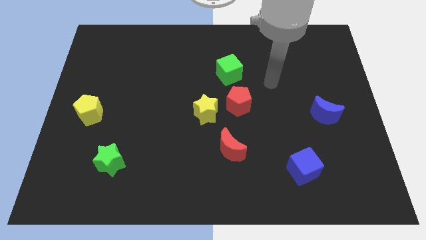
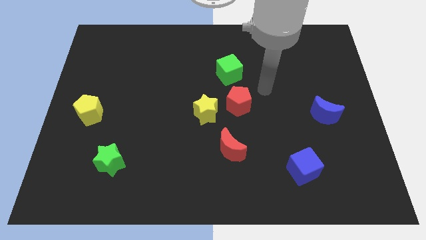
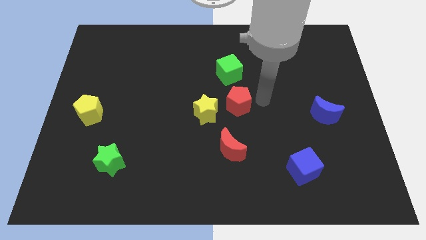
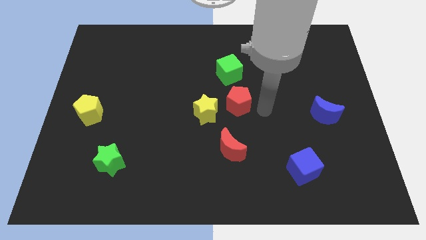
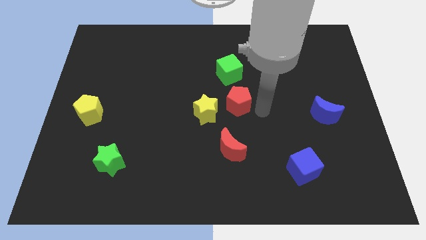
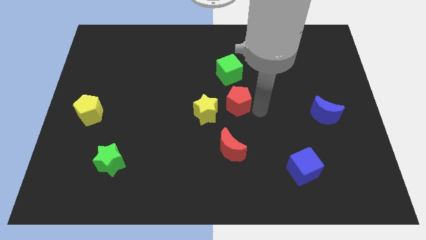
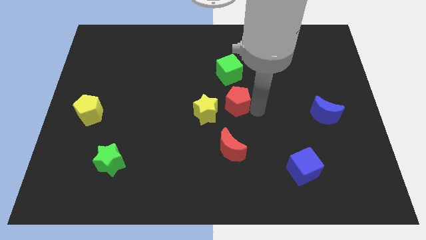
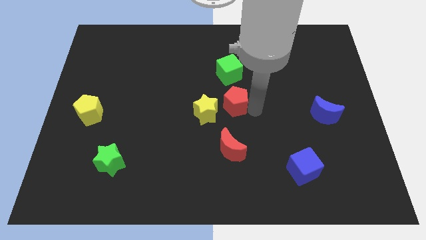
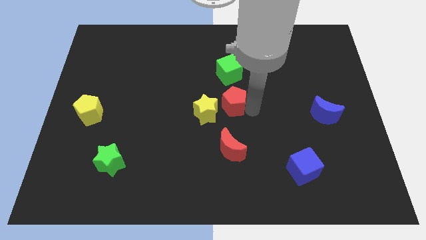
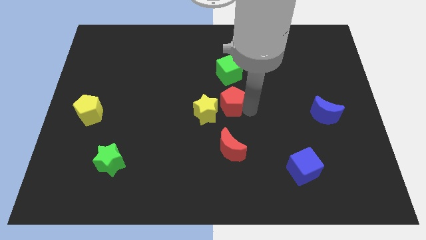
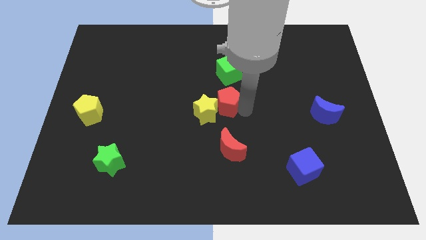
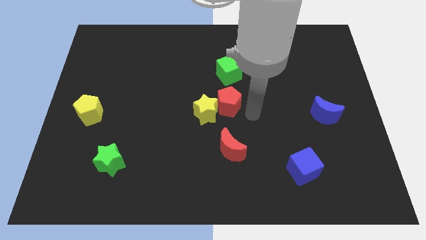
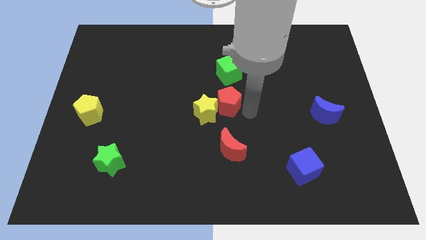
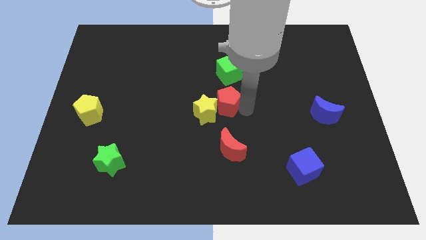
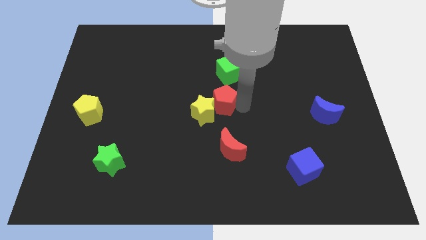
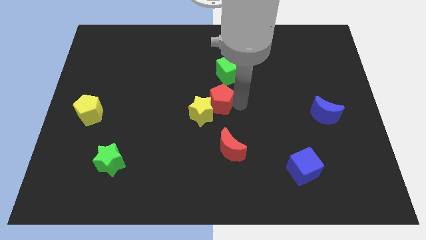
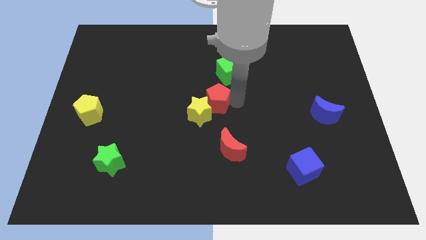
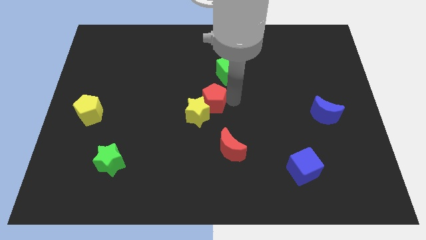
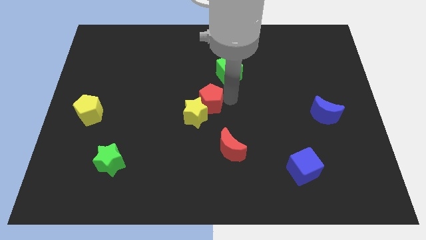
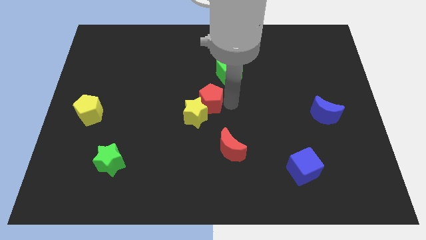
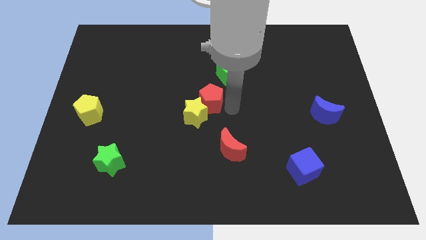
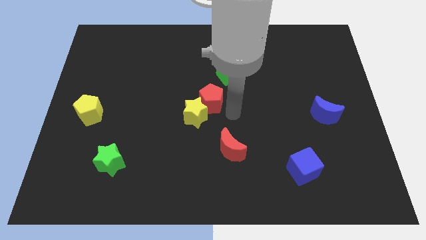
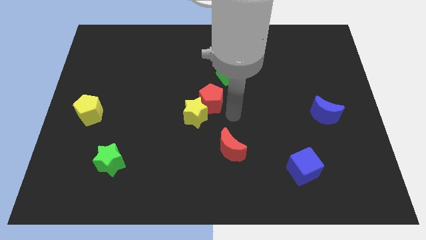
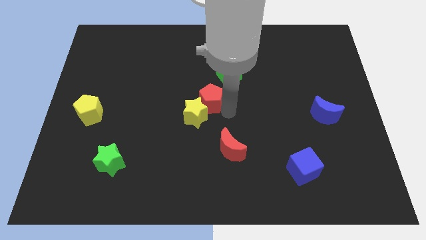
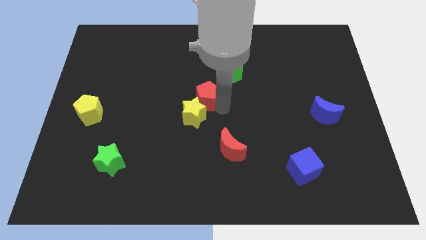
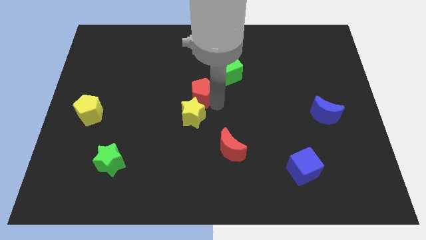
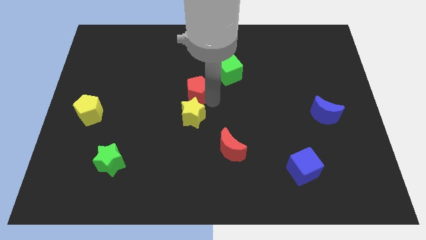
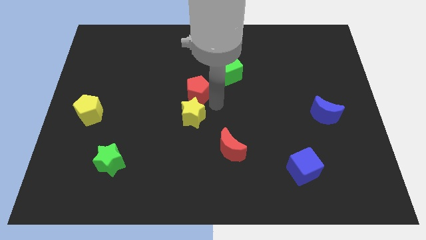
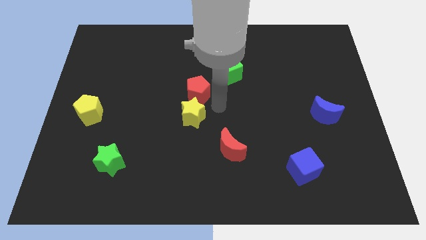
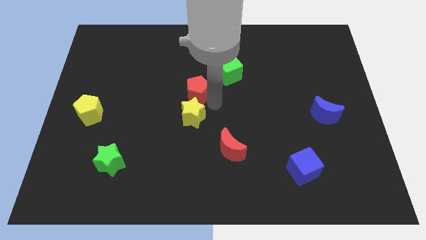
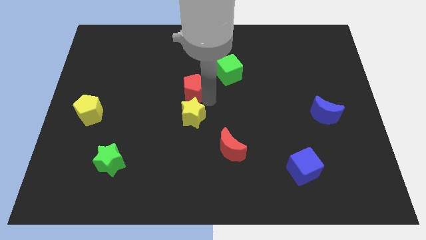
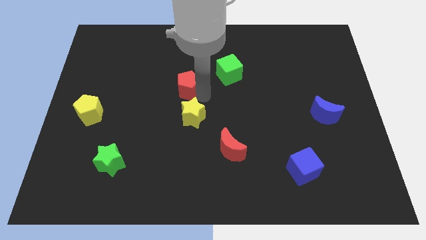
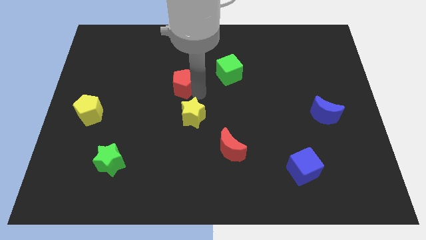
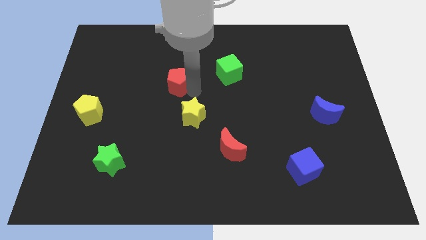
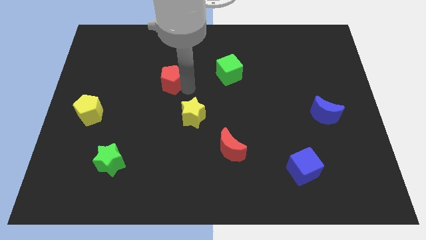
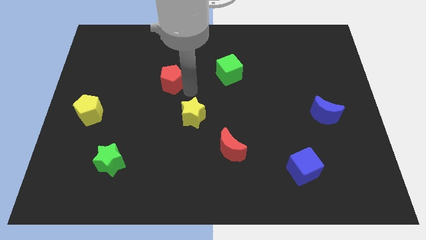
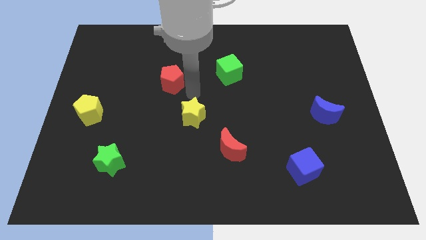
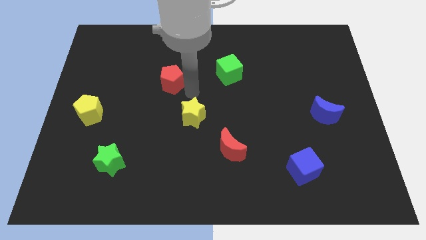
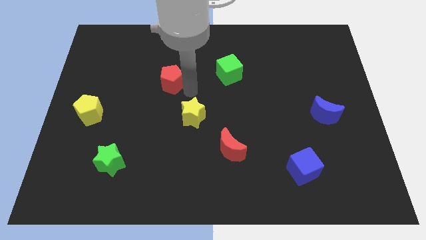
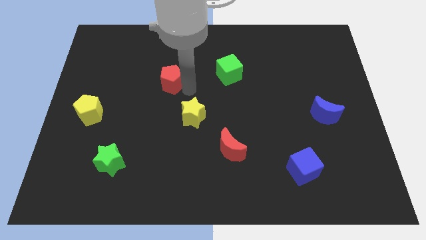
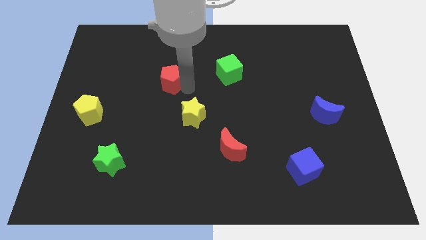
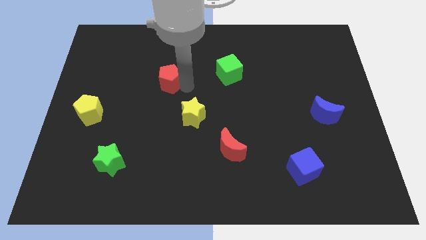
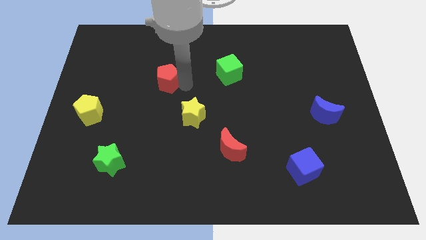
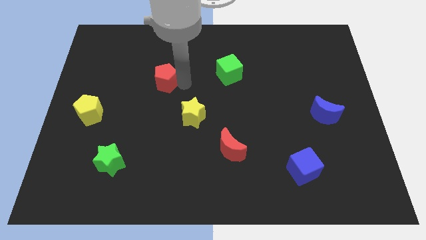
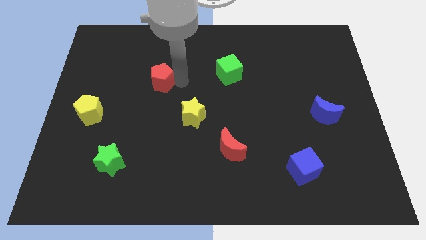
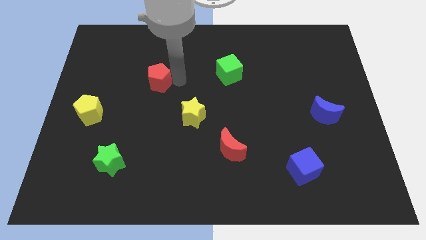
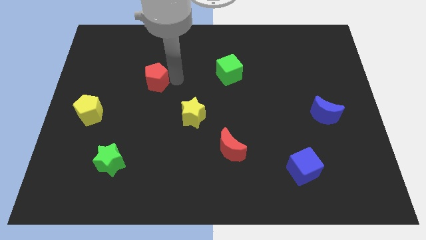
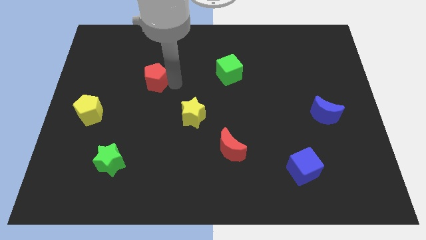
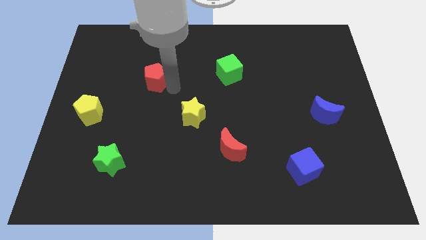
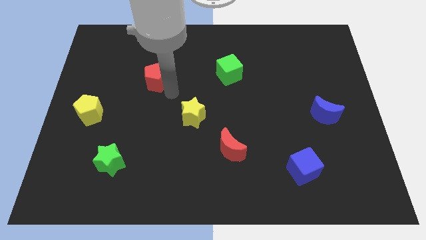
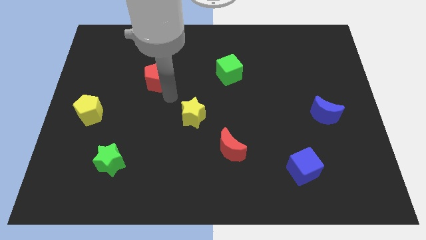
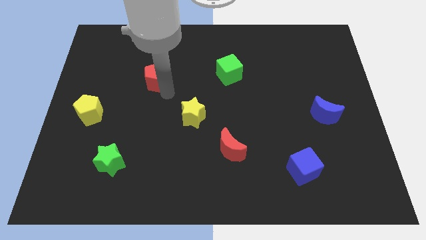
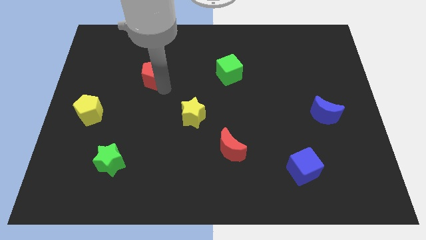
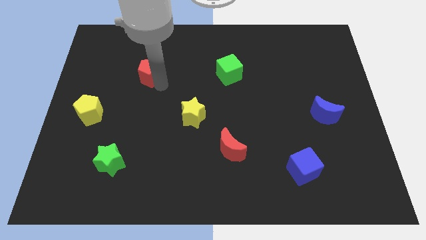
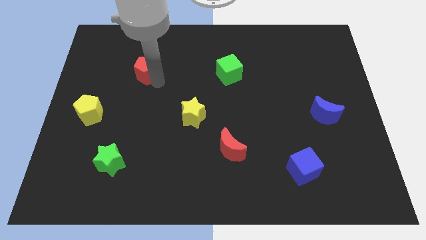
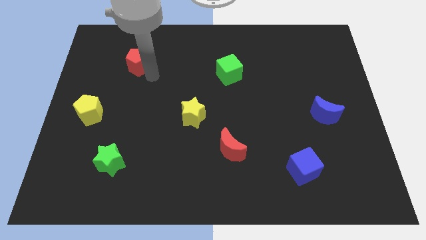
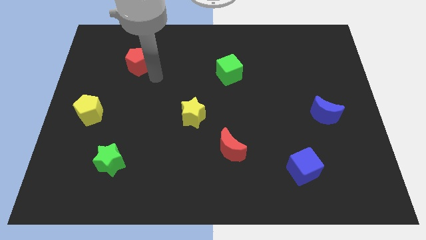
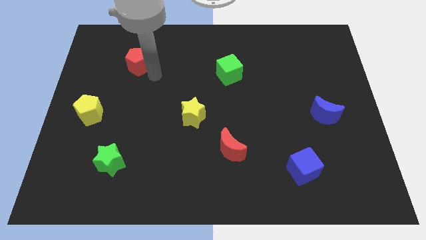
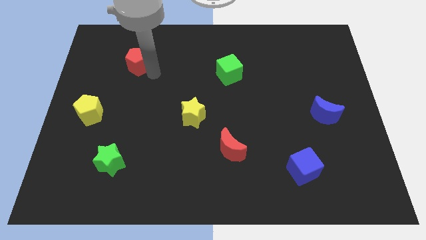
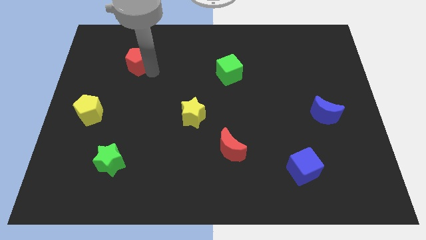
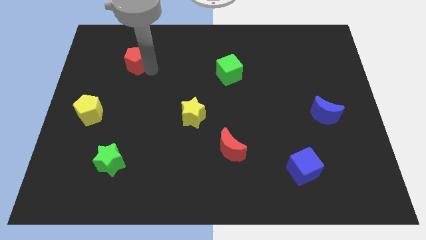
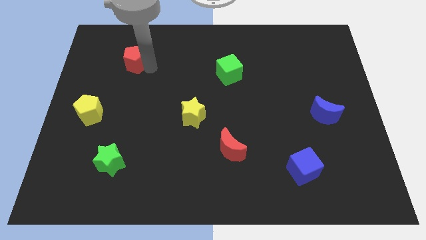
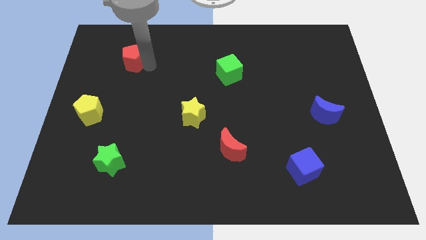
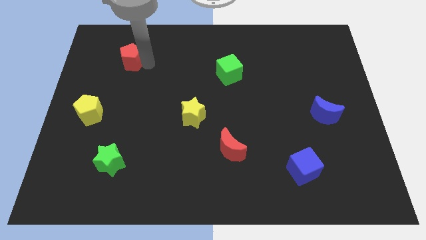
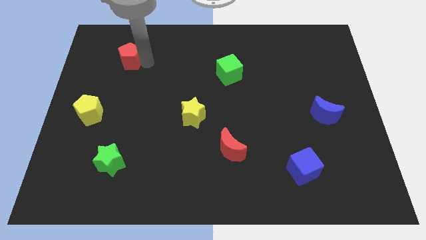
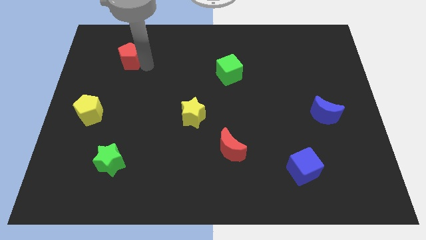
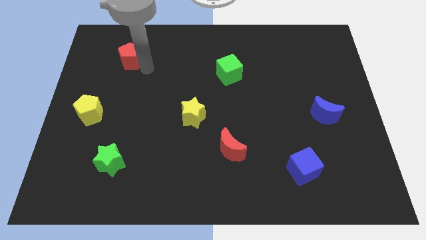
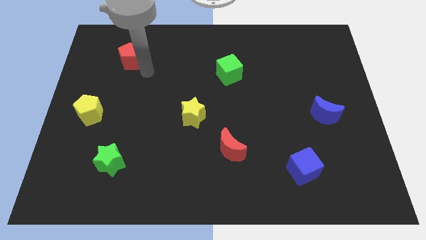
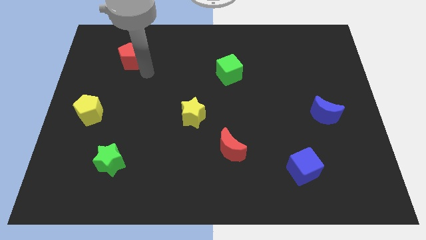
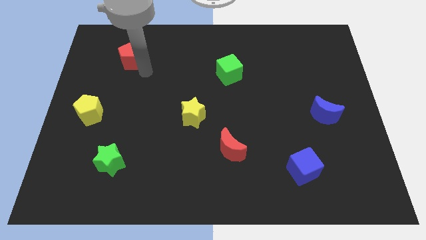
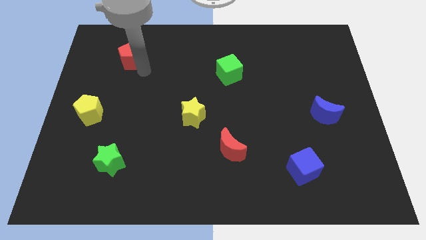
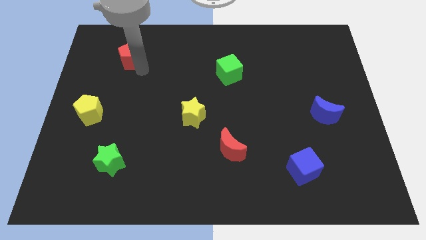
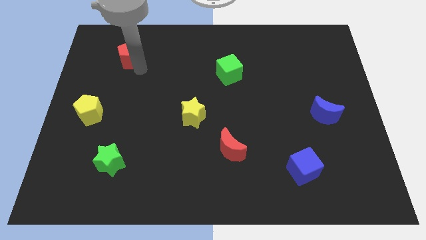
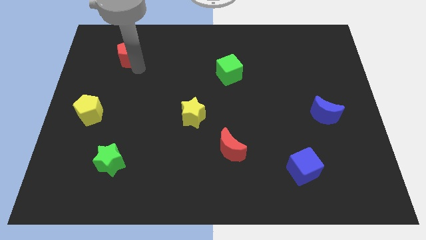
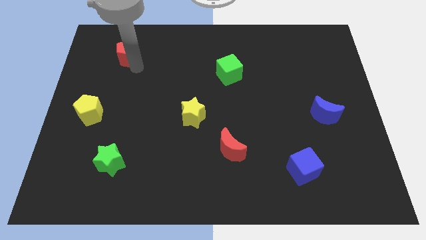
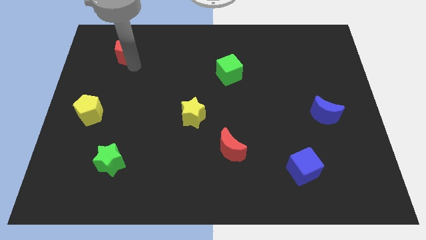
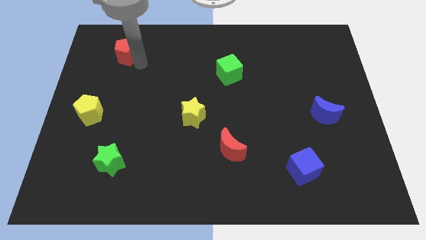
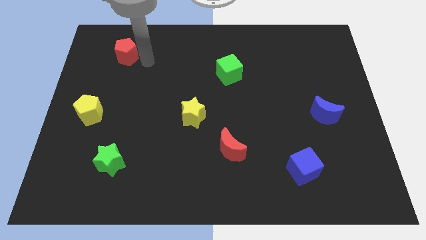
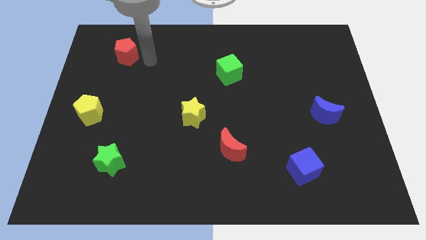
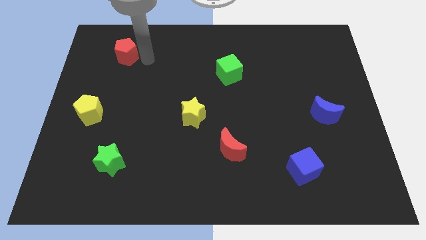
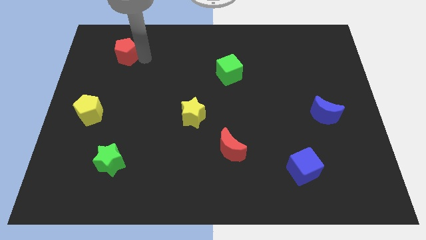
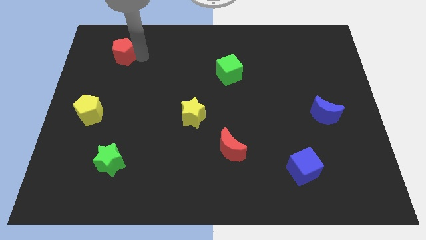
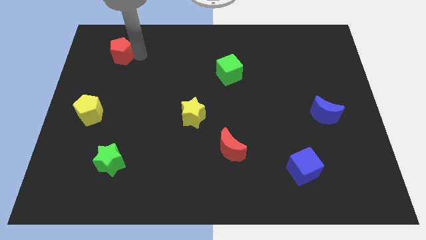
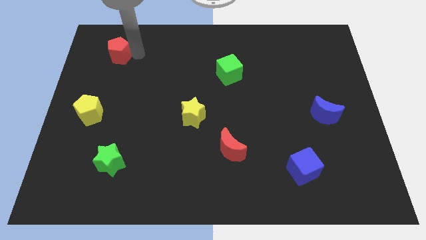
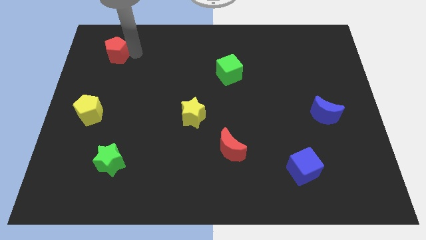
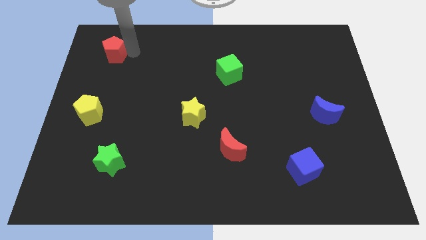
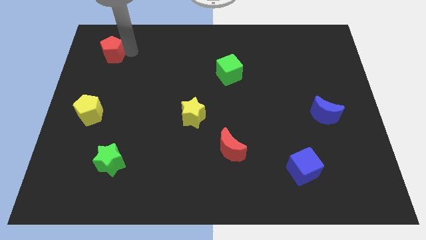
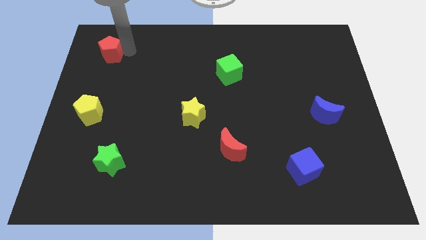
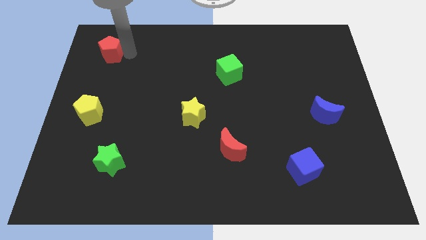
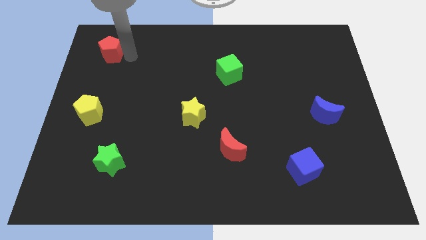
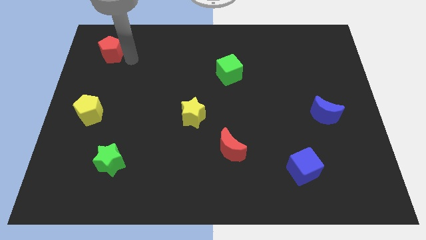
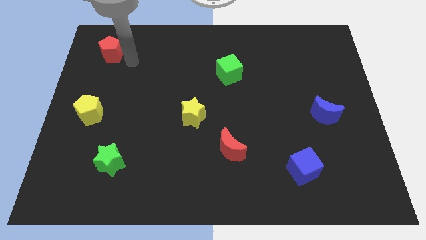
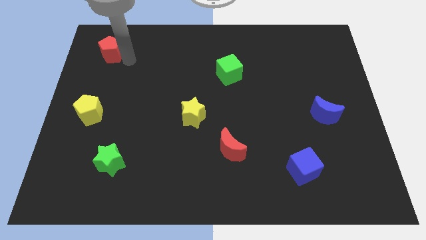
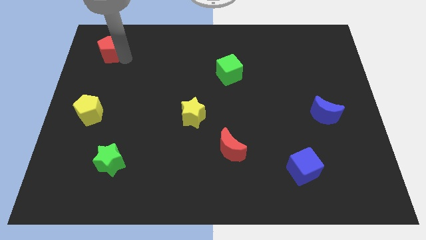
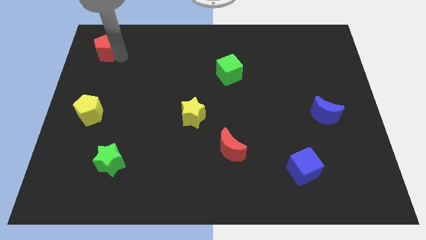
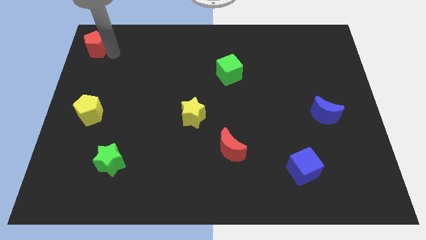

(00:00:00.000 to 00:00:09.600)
slide the red pentagon to the top left of the board
